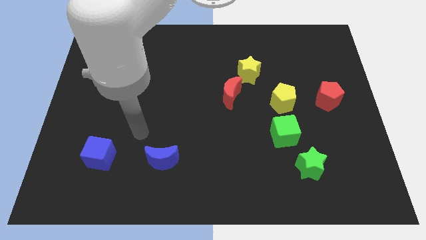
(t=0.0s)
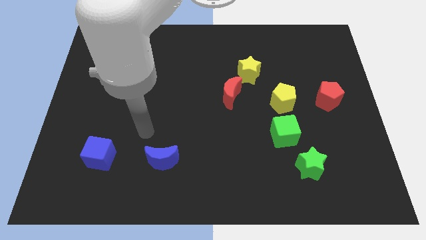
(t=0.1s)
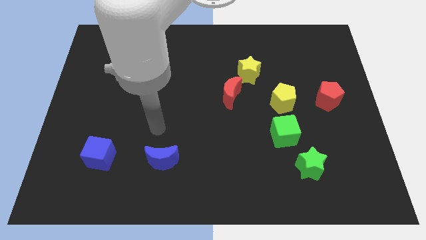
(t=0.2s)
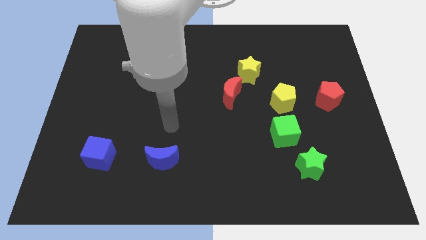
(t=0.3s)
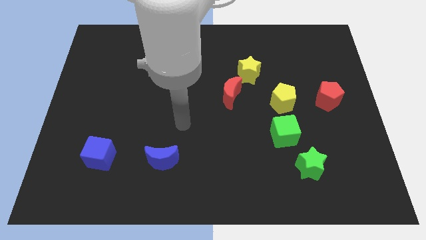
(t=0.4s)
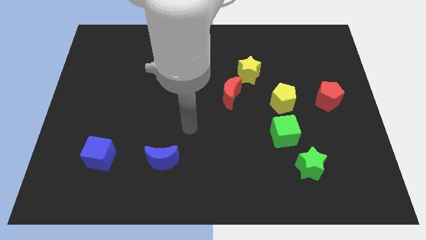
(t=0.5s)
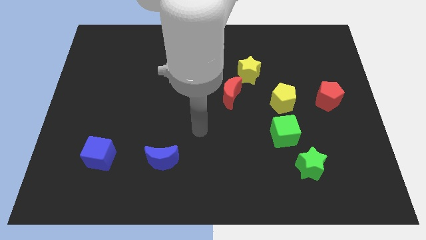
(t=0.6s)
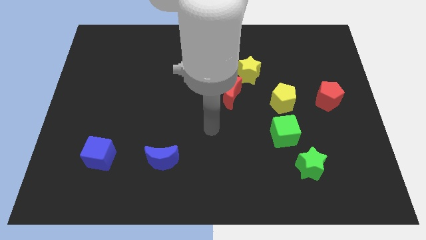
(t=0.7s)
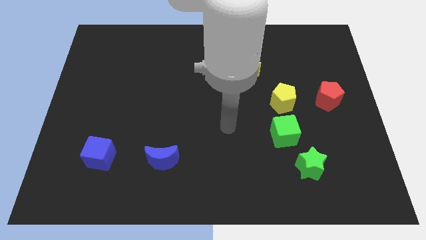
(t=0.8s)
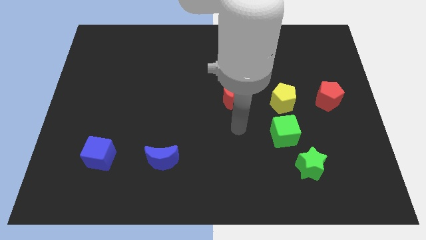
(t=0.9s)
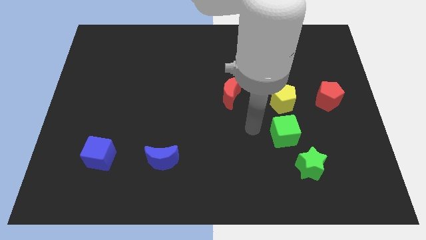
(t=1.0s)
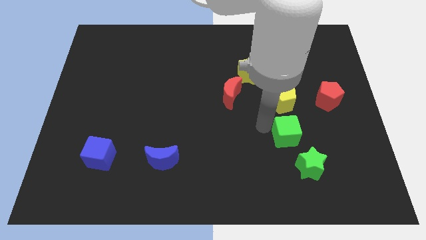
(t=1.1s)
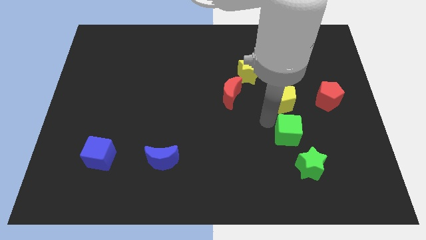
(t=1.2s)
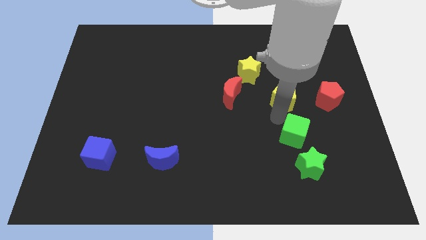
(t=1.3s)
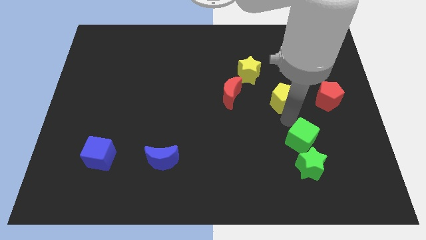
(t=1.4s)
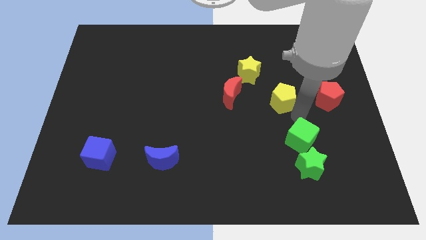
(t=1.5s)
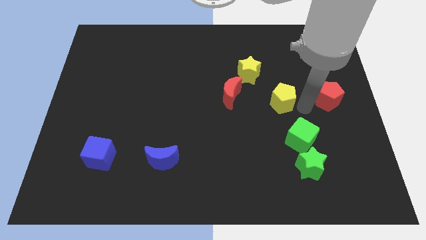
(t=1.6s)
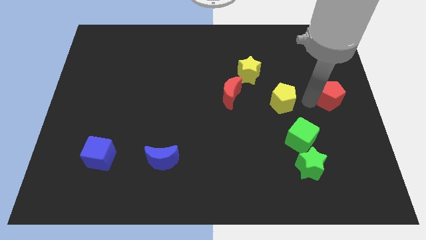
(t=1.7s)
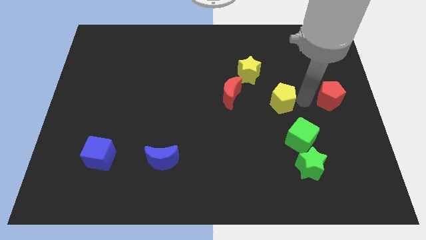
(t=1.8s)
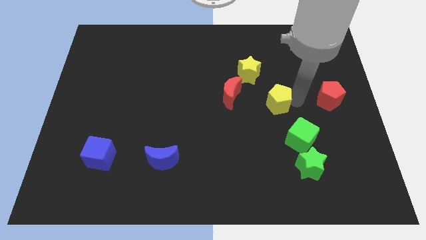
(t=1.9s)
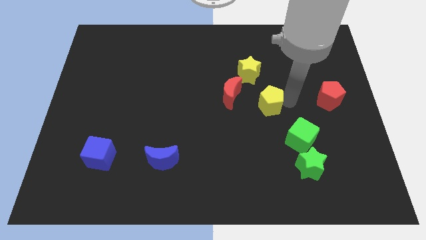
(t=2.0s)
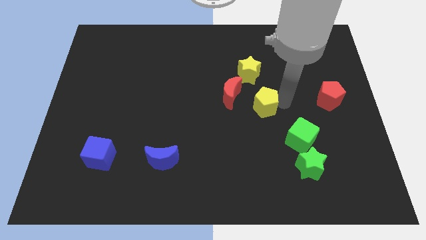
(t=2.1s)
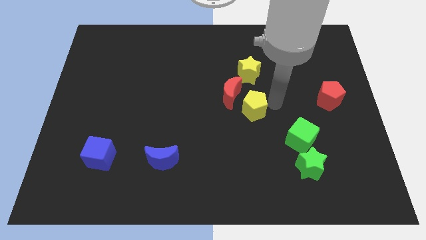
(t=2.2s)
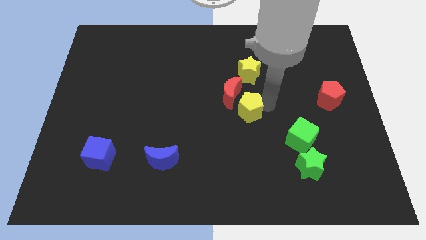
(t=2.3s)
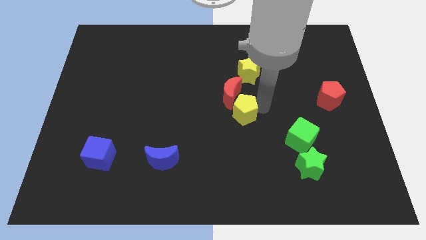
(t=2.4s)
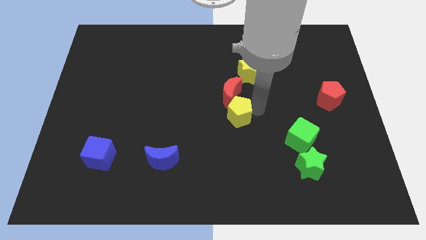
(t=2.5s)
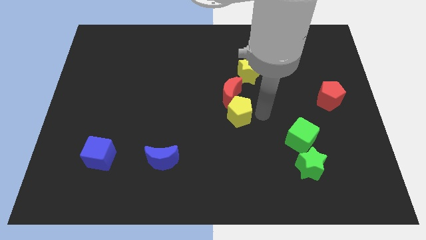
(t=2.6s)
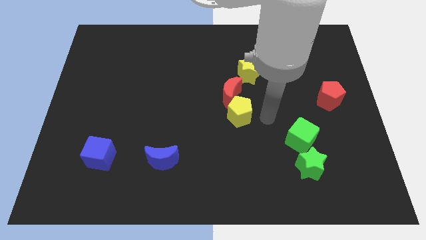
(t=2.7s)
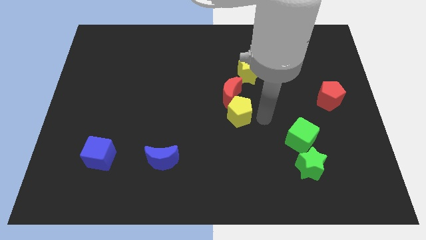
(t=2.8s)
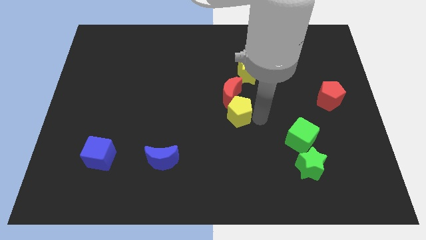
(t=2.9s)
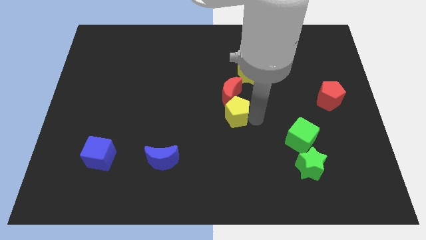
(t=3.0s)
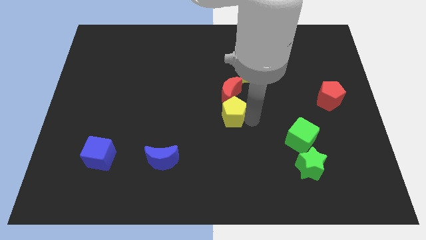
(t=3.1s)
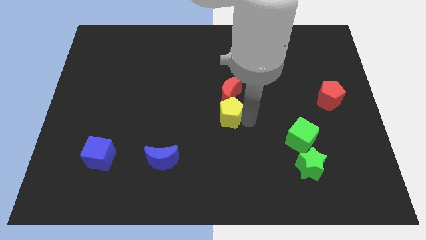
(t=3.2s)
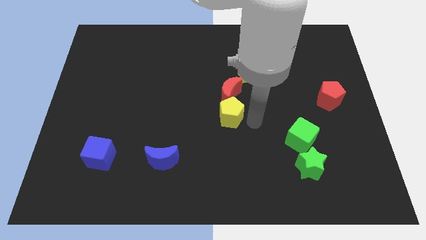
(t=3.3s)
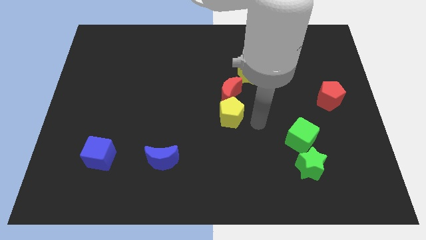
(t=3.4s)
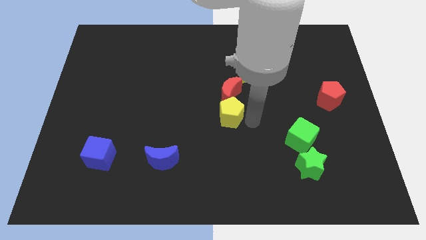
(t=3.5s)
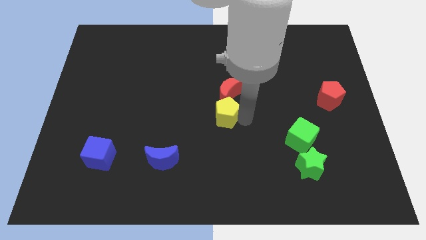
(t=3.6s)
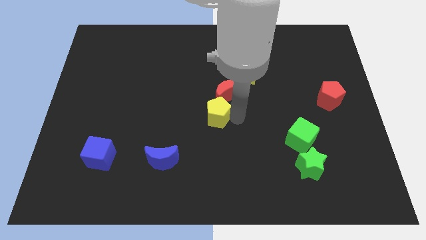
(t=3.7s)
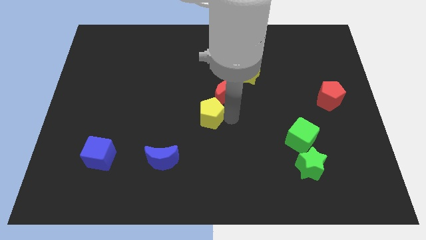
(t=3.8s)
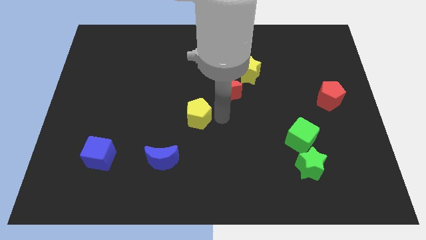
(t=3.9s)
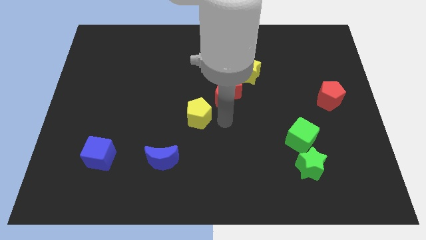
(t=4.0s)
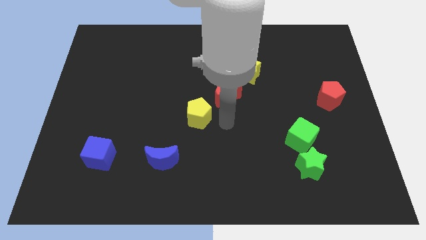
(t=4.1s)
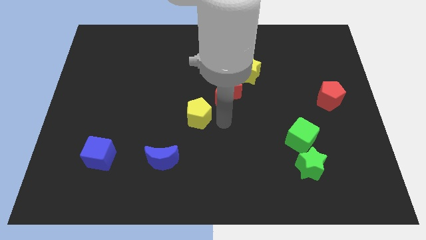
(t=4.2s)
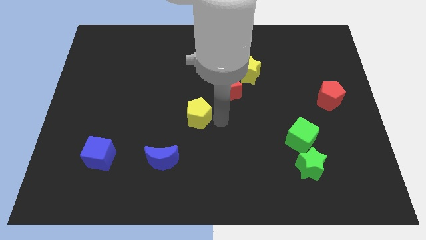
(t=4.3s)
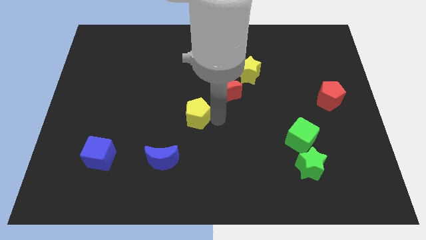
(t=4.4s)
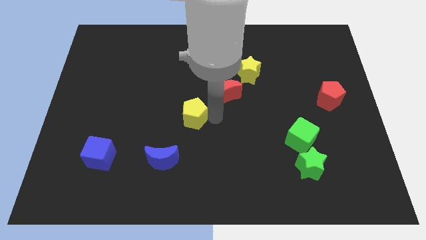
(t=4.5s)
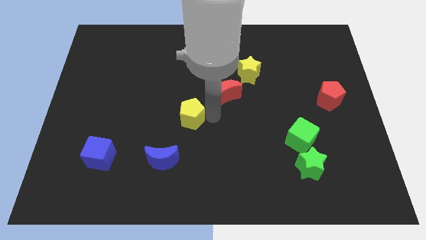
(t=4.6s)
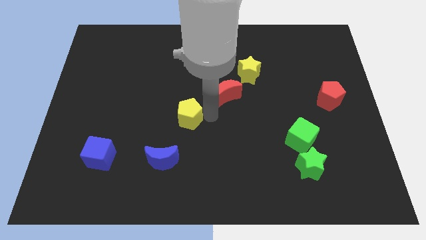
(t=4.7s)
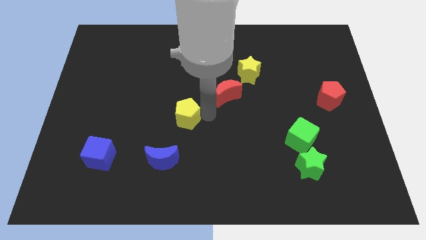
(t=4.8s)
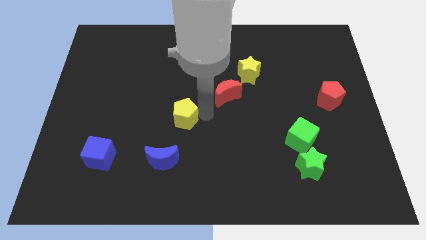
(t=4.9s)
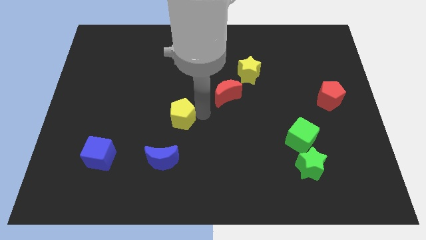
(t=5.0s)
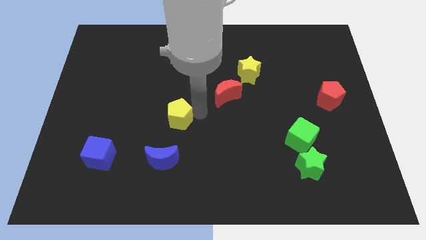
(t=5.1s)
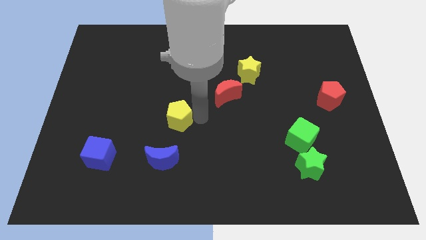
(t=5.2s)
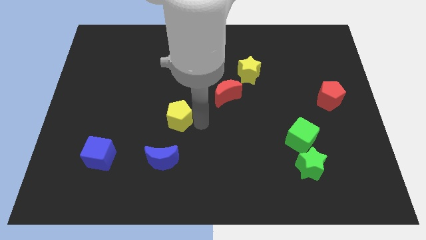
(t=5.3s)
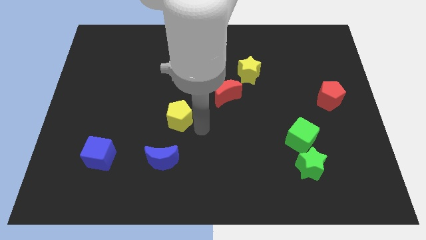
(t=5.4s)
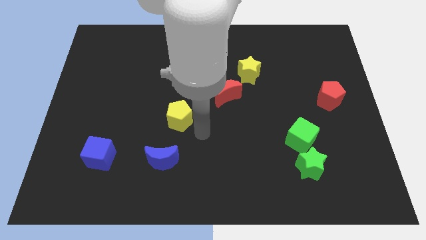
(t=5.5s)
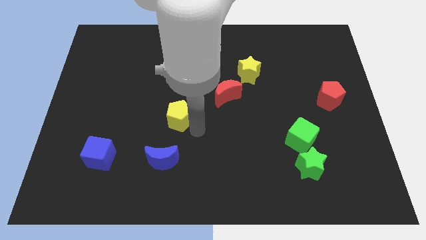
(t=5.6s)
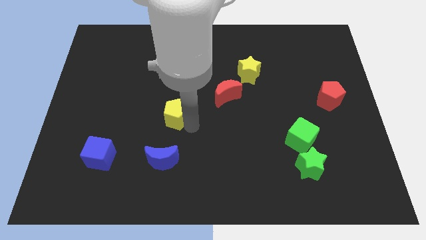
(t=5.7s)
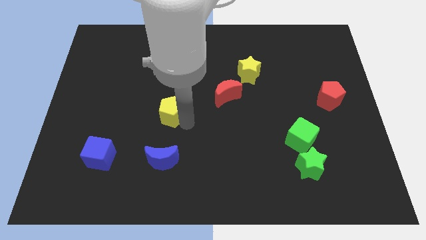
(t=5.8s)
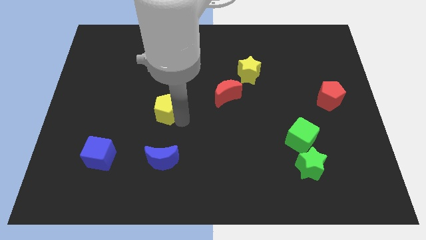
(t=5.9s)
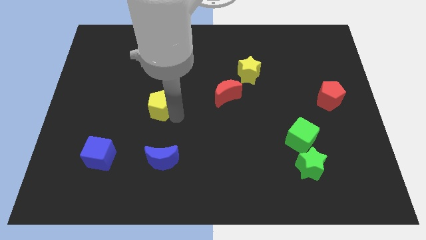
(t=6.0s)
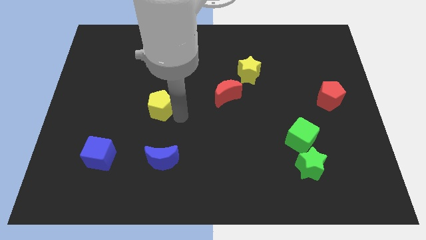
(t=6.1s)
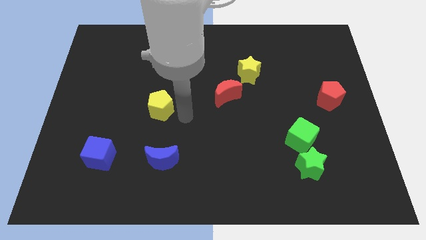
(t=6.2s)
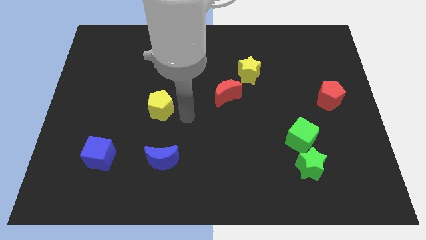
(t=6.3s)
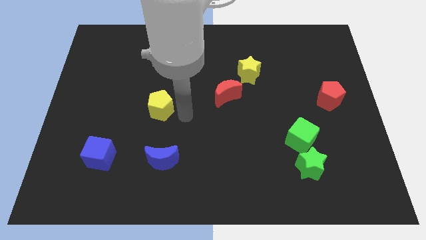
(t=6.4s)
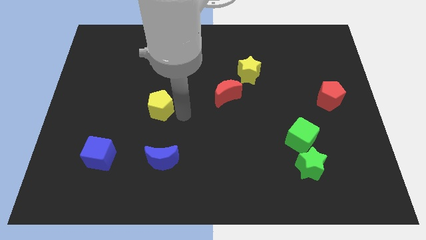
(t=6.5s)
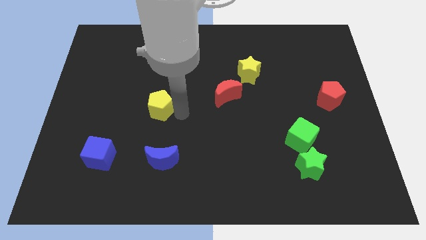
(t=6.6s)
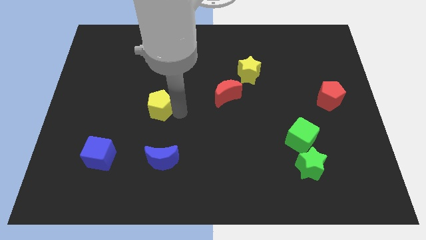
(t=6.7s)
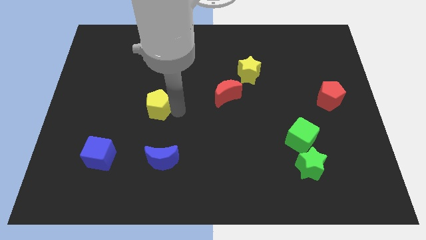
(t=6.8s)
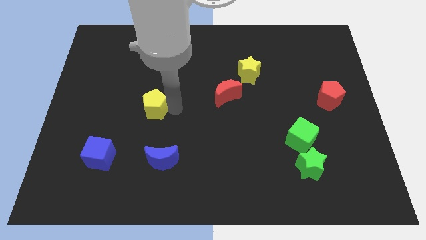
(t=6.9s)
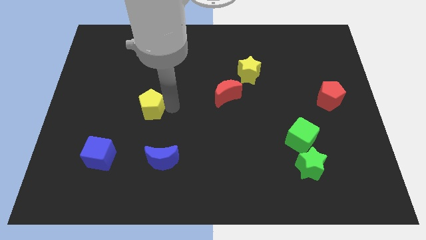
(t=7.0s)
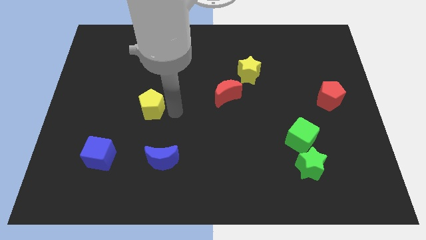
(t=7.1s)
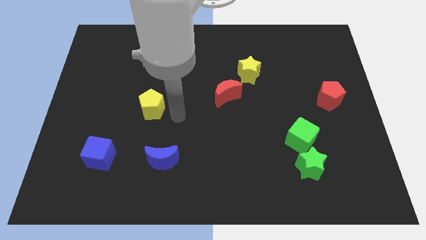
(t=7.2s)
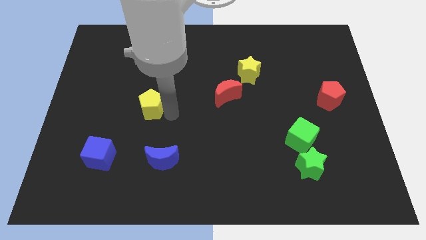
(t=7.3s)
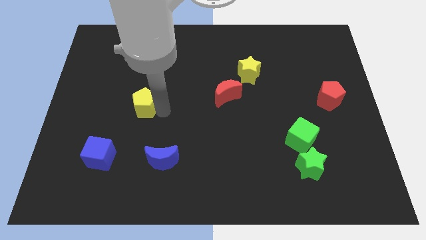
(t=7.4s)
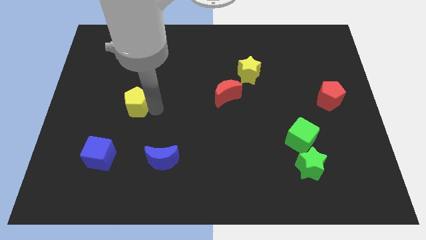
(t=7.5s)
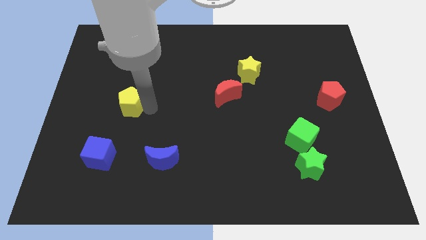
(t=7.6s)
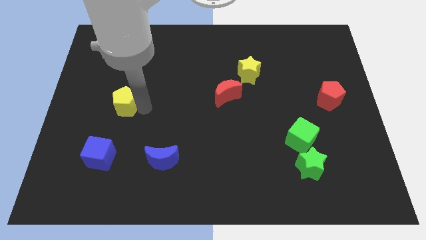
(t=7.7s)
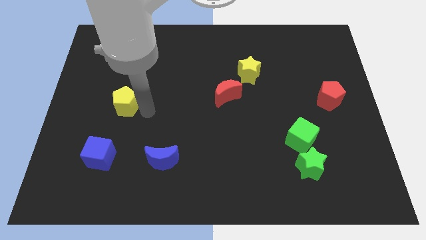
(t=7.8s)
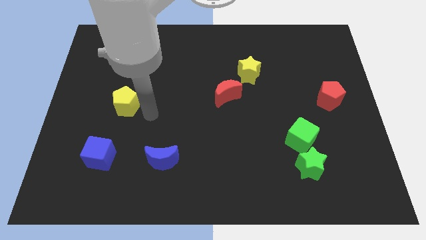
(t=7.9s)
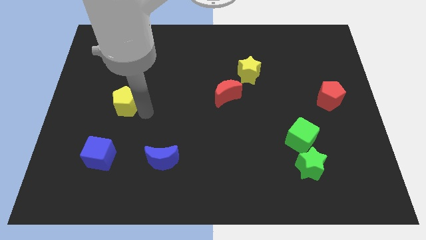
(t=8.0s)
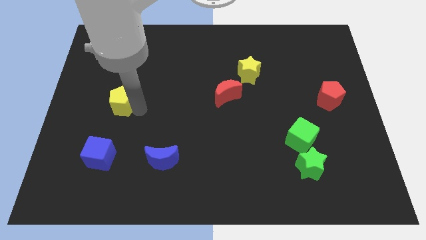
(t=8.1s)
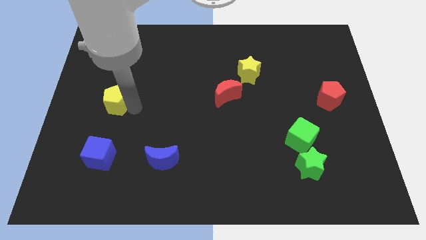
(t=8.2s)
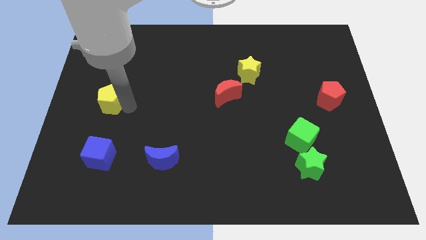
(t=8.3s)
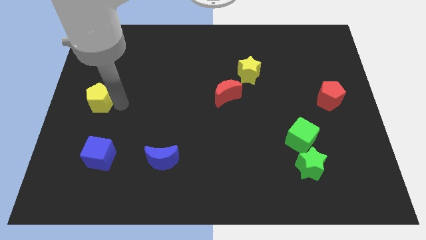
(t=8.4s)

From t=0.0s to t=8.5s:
slide the yellow pentagon to the left side of the board
